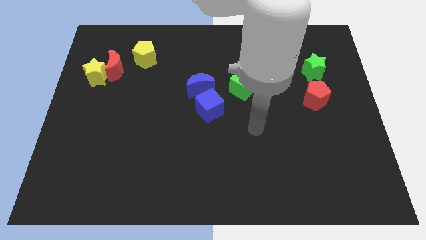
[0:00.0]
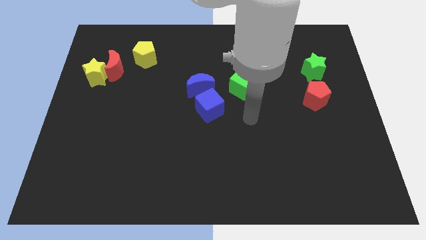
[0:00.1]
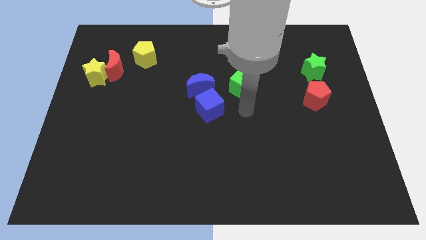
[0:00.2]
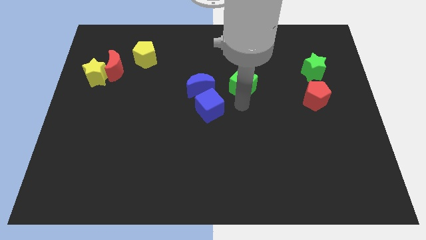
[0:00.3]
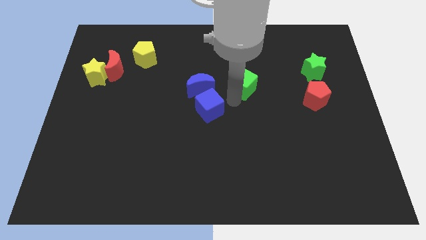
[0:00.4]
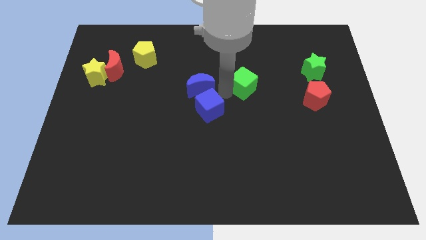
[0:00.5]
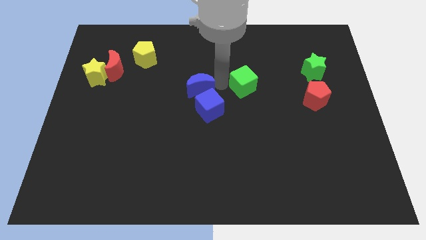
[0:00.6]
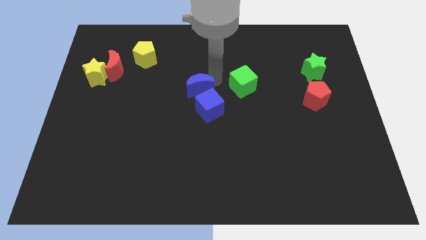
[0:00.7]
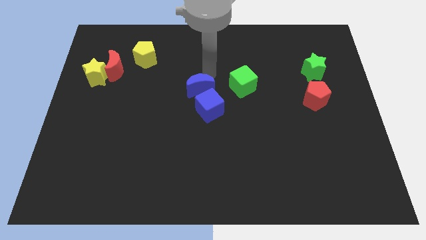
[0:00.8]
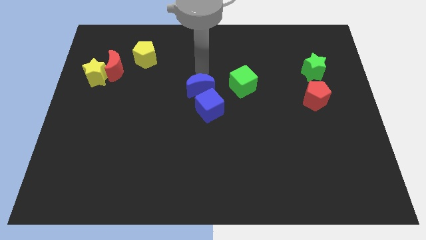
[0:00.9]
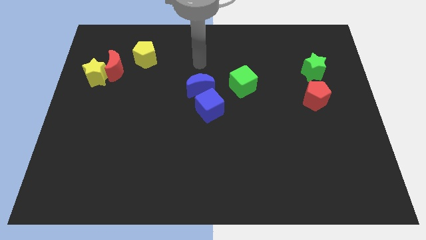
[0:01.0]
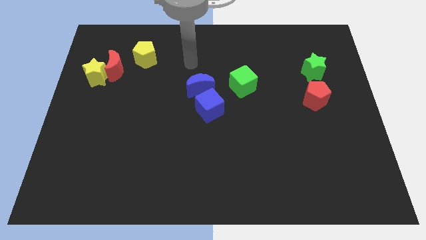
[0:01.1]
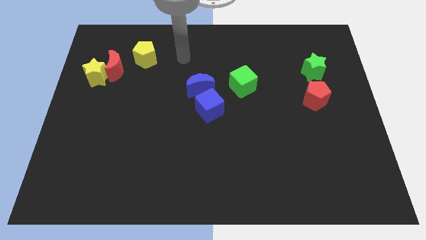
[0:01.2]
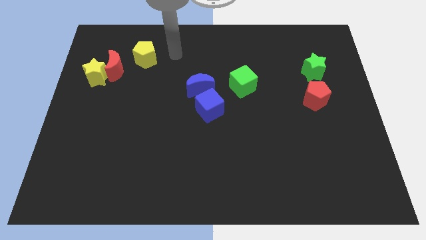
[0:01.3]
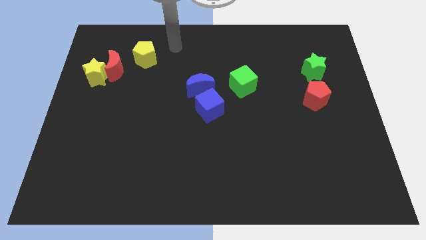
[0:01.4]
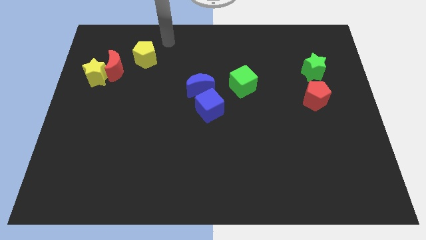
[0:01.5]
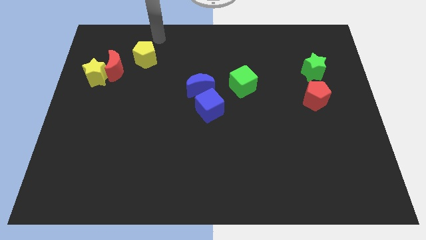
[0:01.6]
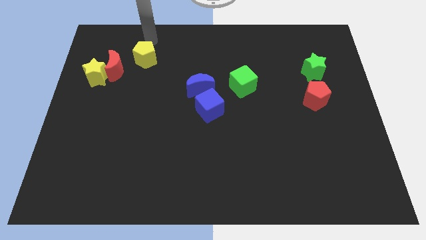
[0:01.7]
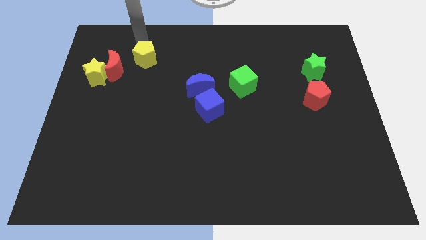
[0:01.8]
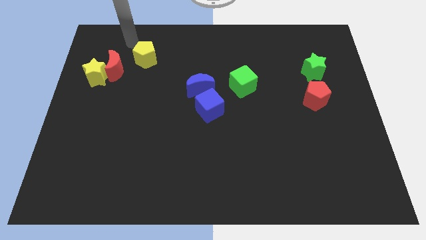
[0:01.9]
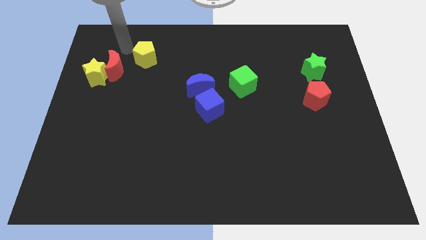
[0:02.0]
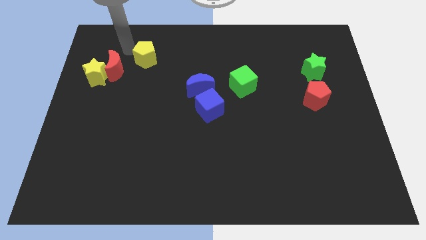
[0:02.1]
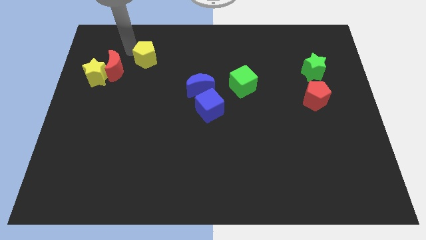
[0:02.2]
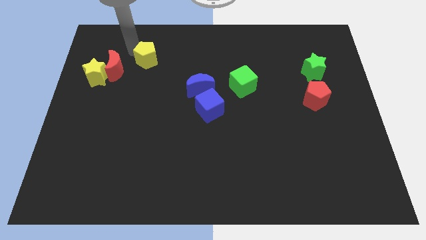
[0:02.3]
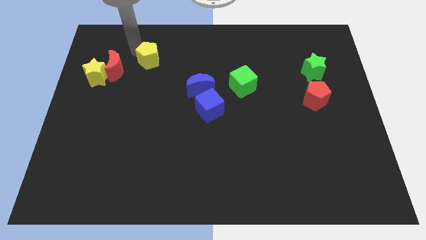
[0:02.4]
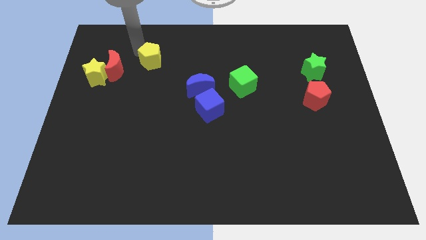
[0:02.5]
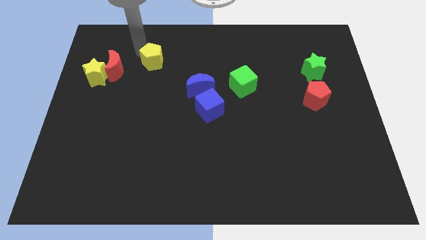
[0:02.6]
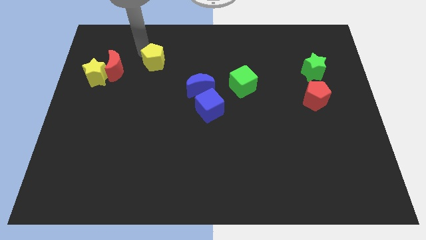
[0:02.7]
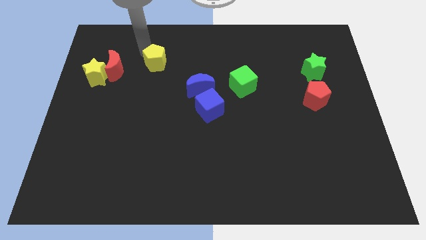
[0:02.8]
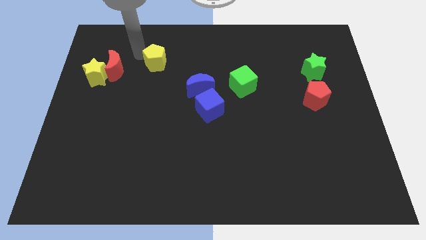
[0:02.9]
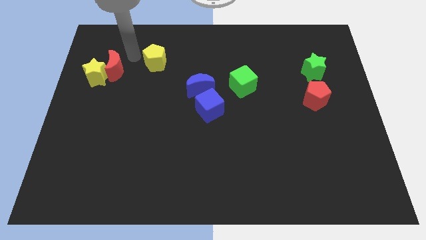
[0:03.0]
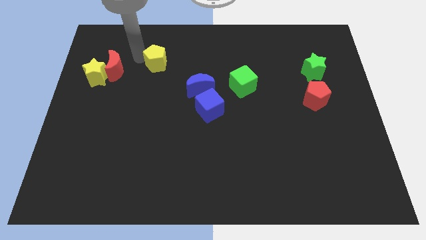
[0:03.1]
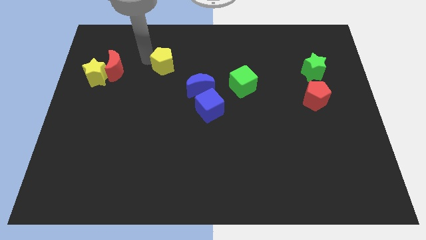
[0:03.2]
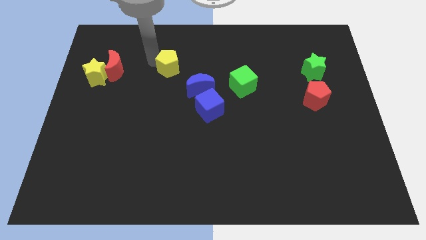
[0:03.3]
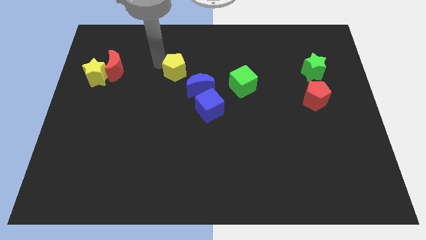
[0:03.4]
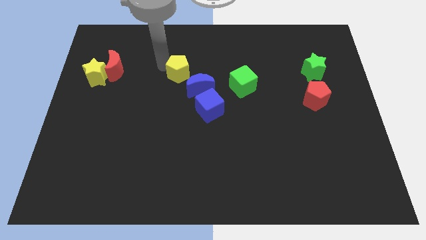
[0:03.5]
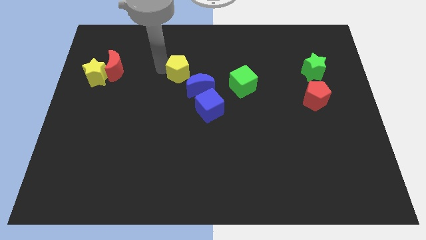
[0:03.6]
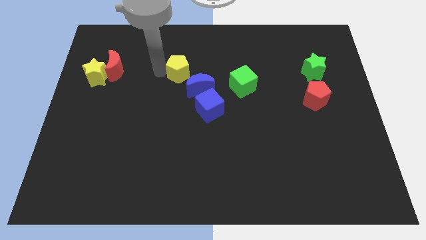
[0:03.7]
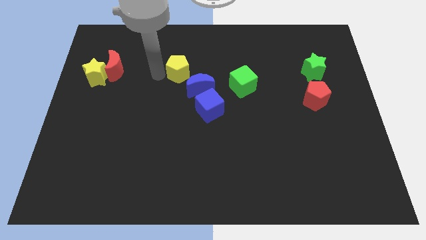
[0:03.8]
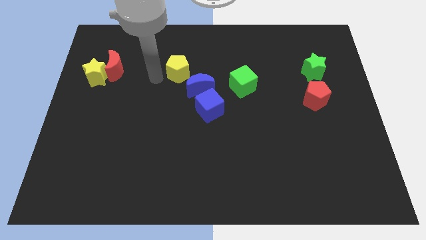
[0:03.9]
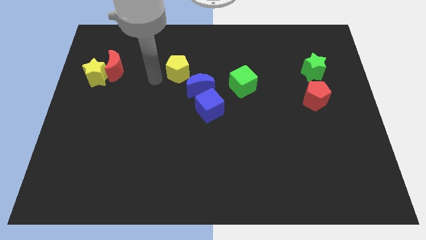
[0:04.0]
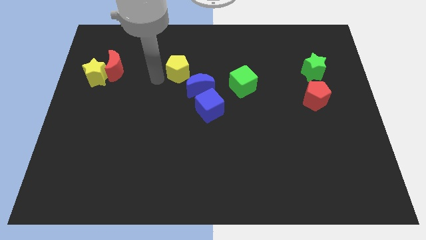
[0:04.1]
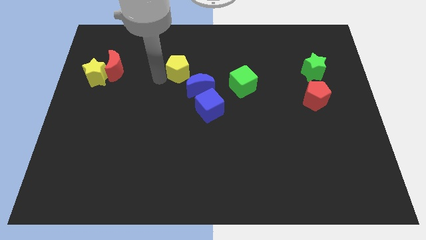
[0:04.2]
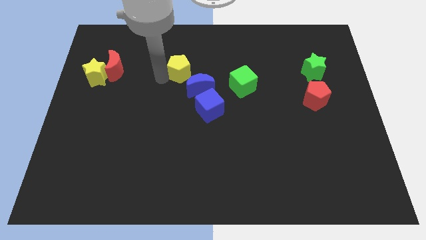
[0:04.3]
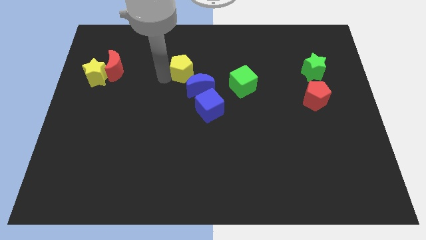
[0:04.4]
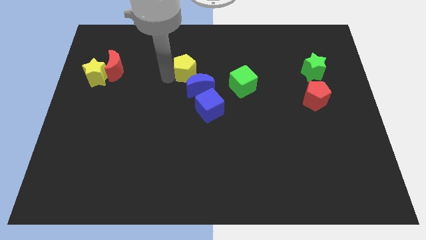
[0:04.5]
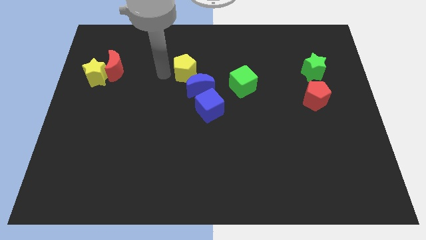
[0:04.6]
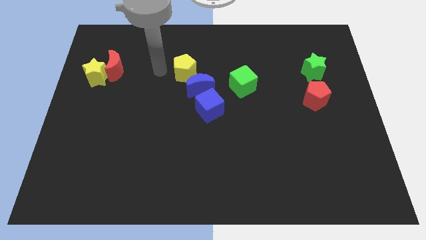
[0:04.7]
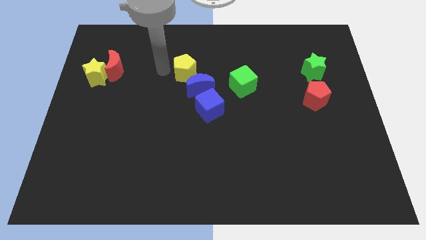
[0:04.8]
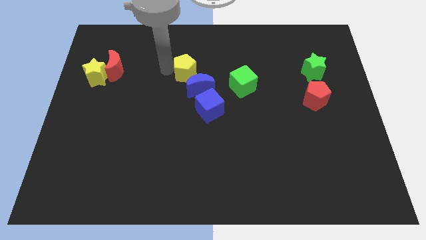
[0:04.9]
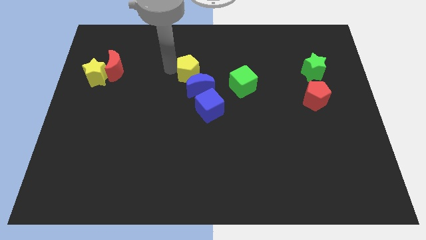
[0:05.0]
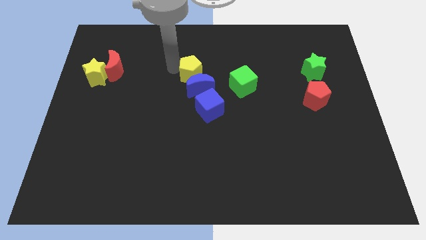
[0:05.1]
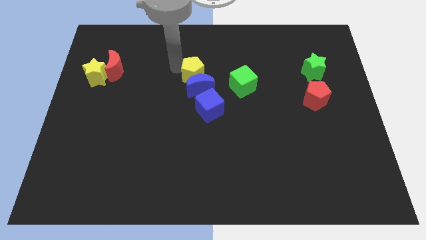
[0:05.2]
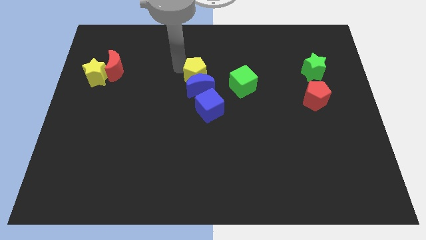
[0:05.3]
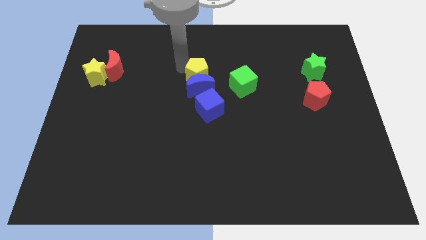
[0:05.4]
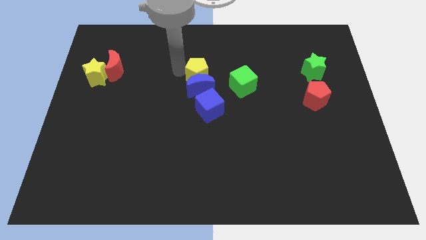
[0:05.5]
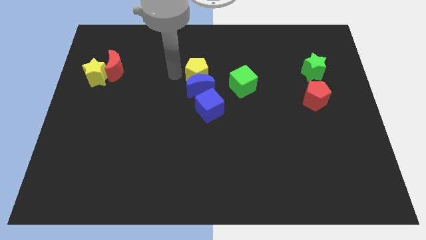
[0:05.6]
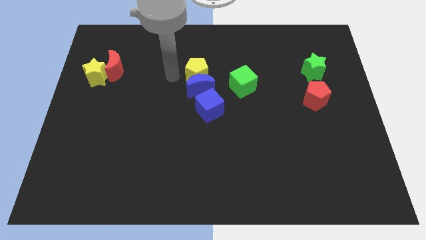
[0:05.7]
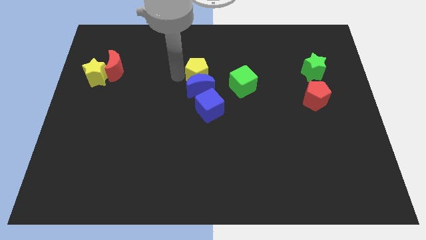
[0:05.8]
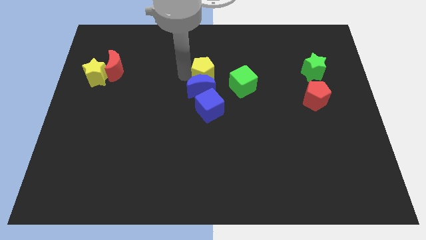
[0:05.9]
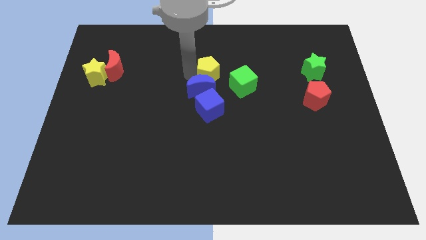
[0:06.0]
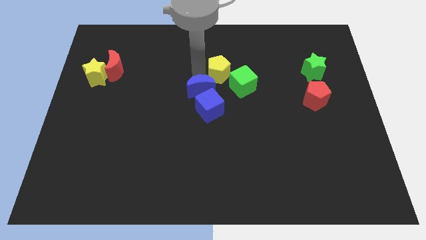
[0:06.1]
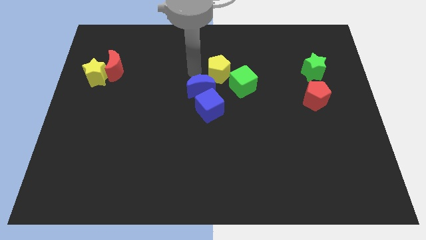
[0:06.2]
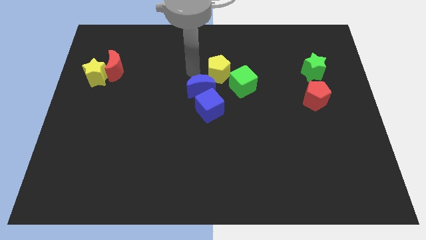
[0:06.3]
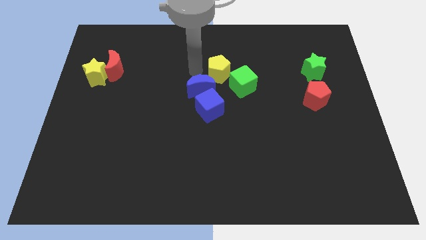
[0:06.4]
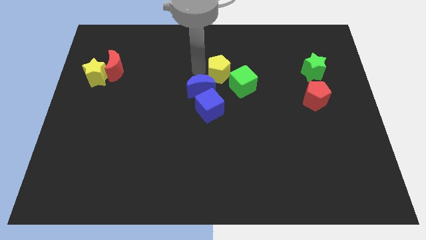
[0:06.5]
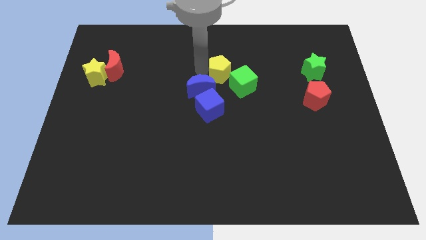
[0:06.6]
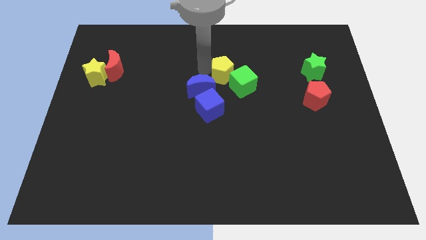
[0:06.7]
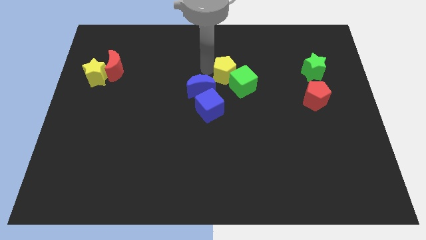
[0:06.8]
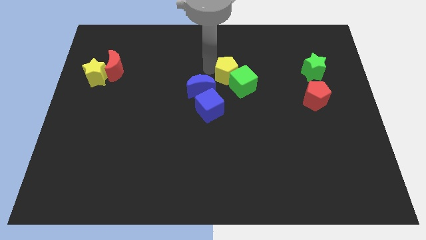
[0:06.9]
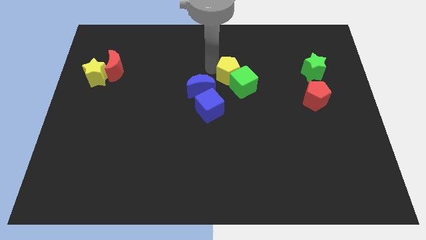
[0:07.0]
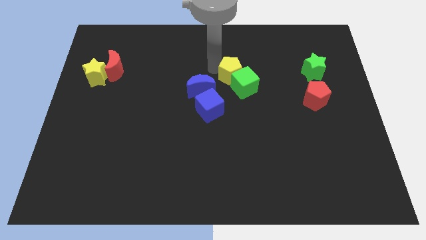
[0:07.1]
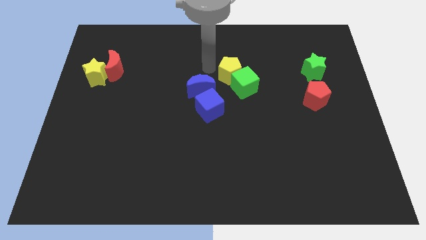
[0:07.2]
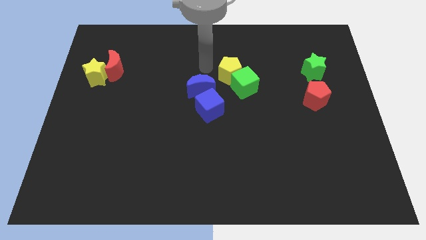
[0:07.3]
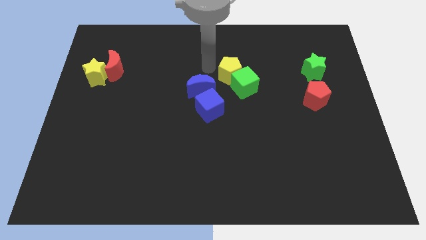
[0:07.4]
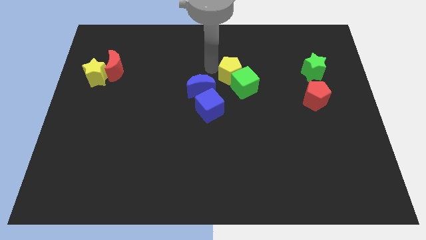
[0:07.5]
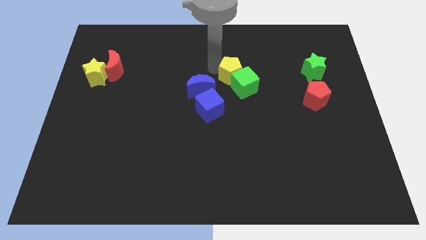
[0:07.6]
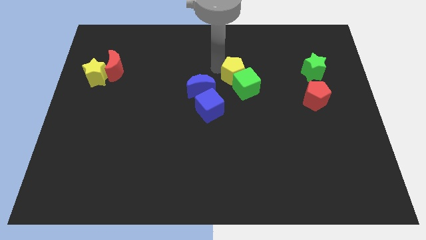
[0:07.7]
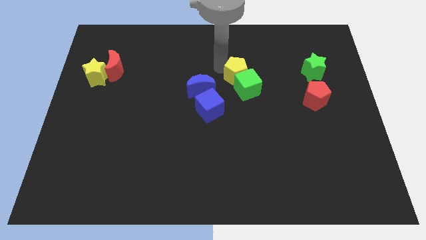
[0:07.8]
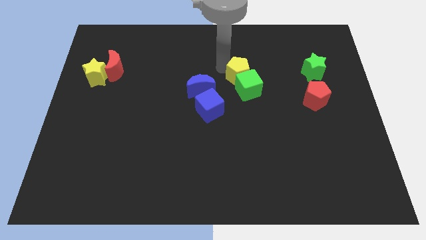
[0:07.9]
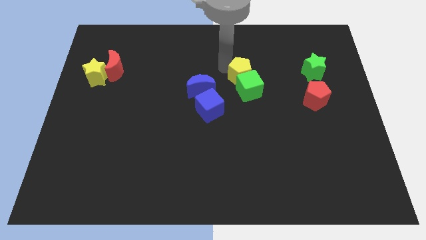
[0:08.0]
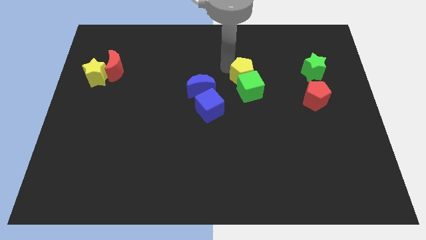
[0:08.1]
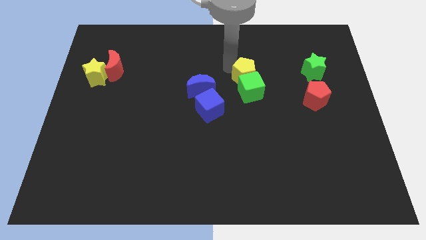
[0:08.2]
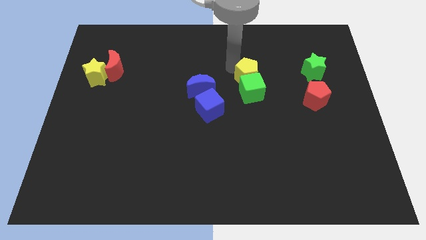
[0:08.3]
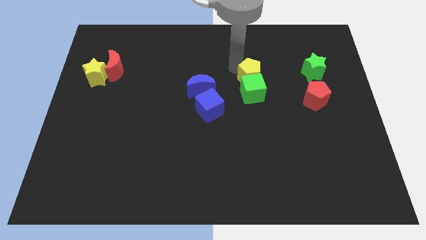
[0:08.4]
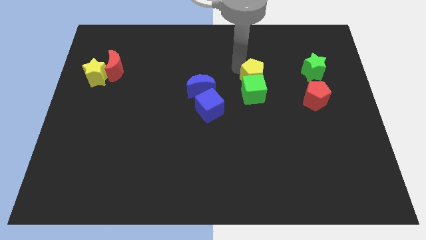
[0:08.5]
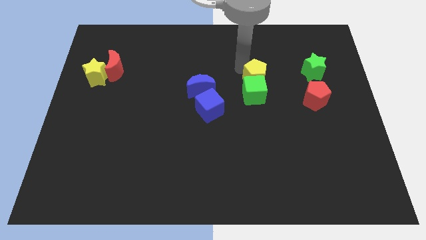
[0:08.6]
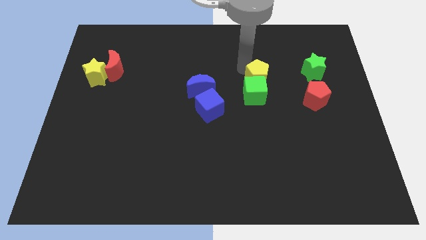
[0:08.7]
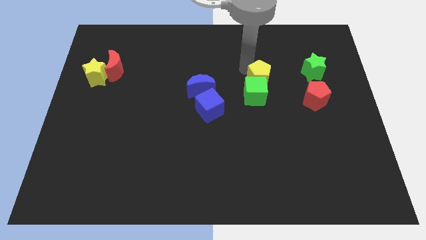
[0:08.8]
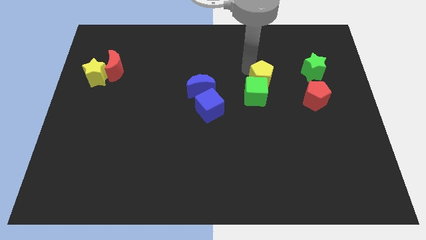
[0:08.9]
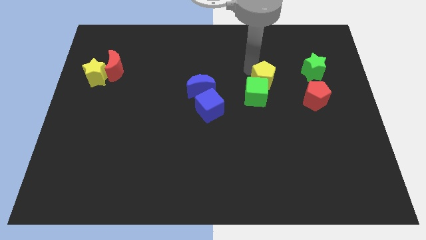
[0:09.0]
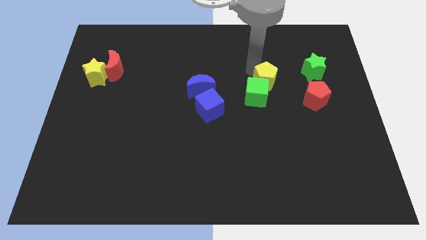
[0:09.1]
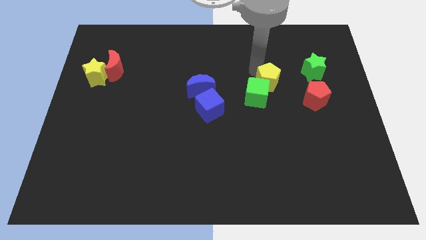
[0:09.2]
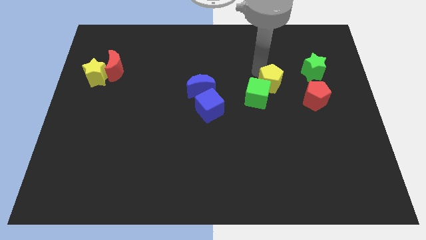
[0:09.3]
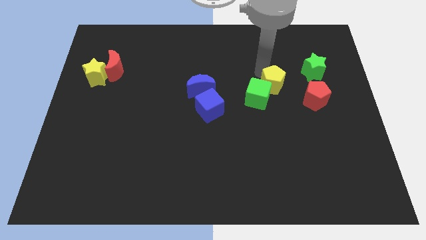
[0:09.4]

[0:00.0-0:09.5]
push the yellow pentagon to the left of the red pentagon
